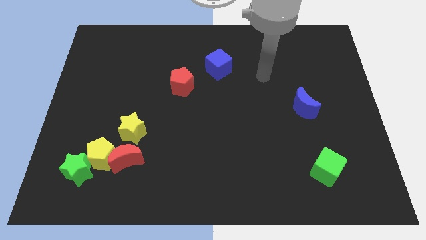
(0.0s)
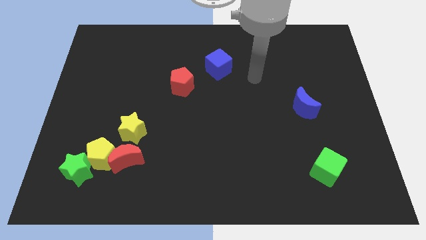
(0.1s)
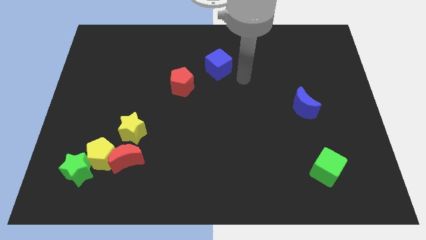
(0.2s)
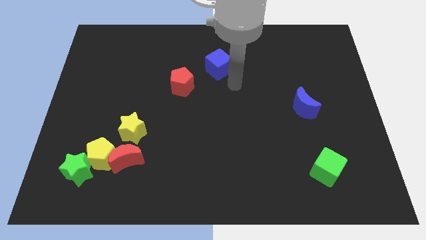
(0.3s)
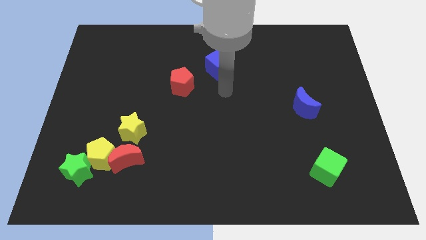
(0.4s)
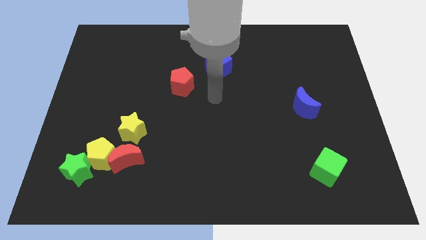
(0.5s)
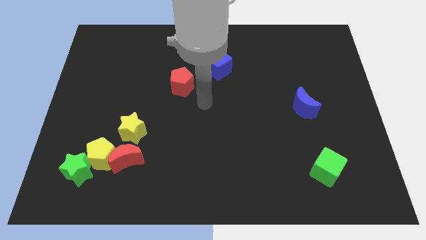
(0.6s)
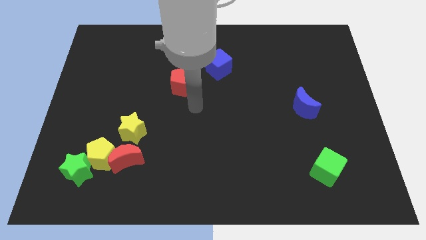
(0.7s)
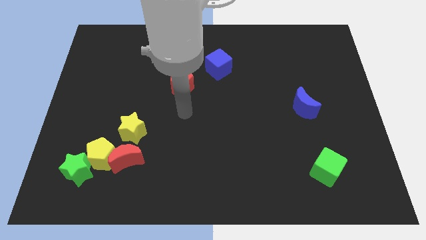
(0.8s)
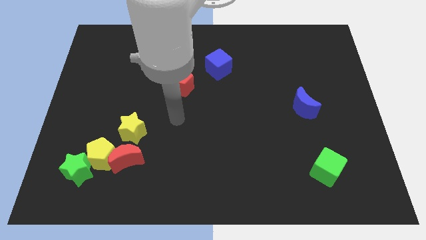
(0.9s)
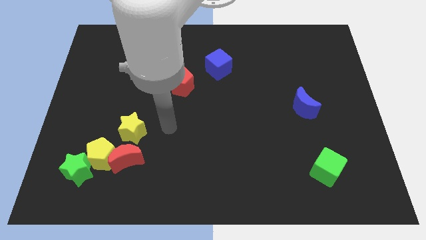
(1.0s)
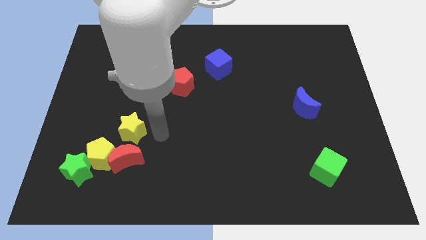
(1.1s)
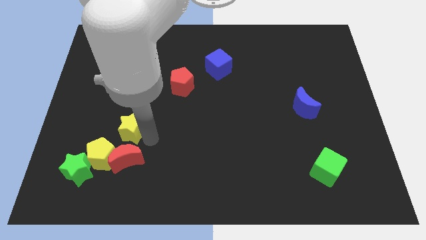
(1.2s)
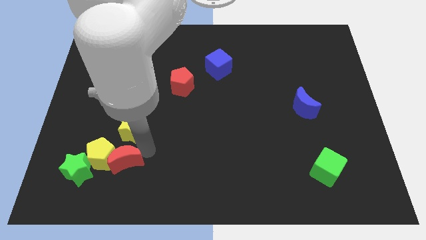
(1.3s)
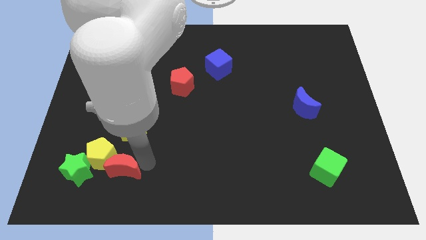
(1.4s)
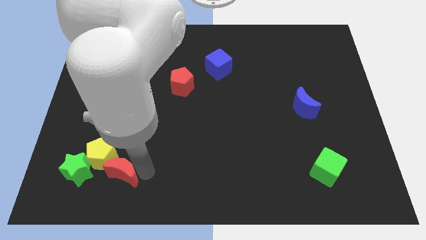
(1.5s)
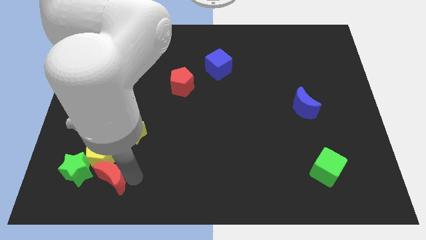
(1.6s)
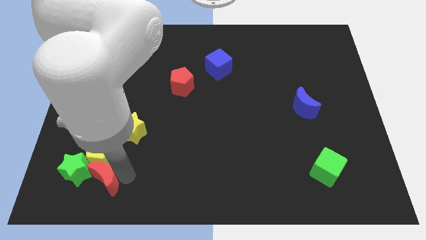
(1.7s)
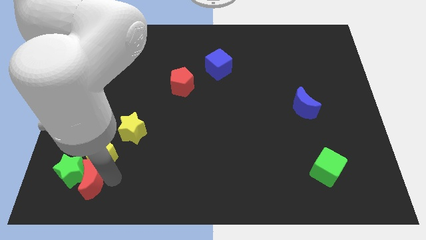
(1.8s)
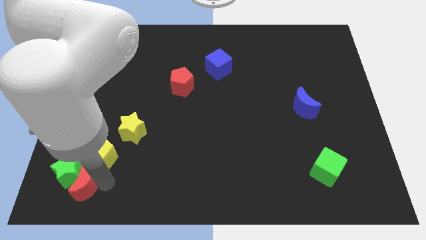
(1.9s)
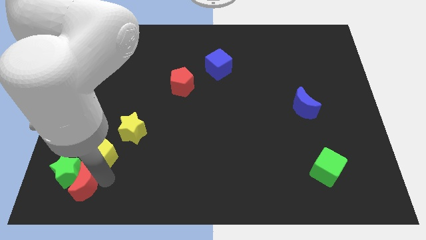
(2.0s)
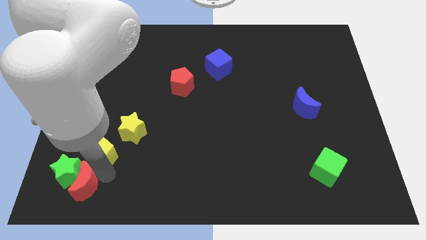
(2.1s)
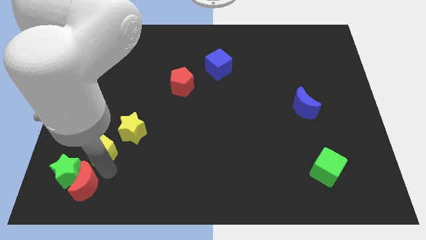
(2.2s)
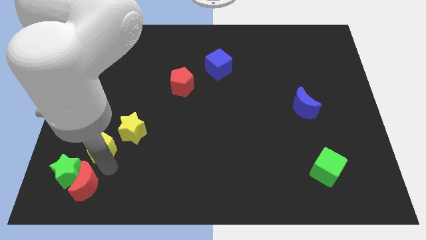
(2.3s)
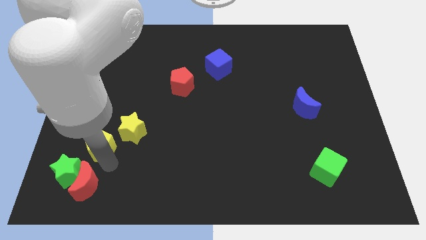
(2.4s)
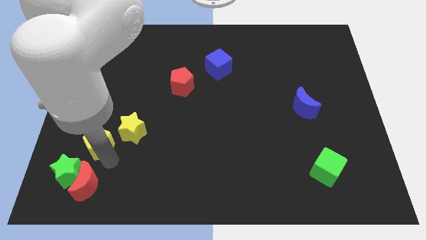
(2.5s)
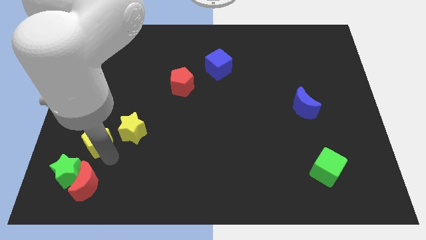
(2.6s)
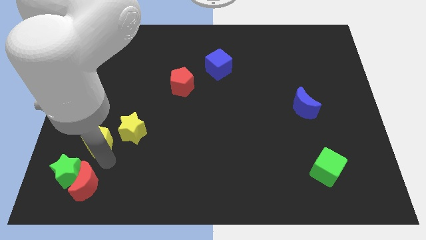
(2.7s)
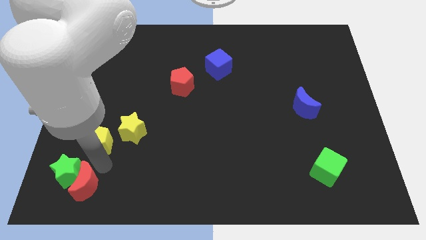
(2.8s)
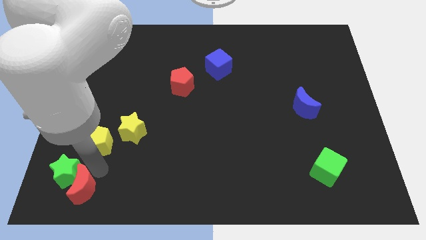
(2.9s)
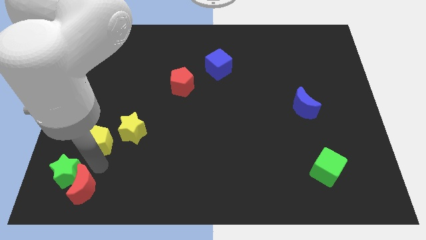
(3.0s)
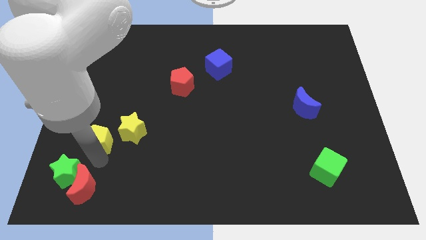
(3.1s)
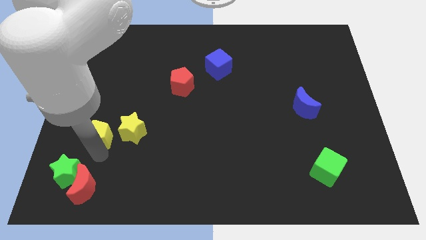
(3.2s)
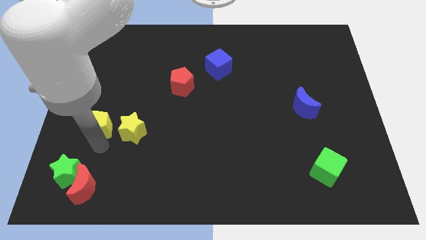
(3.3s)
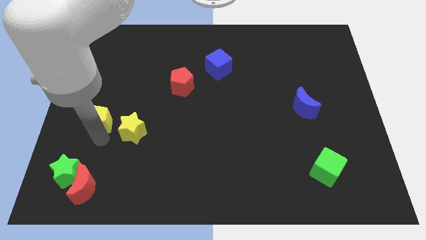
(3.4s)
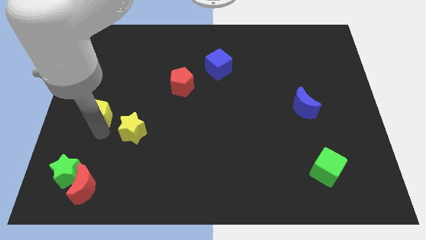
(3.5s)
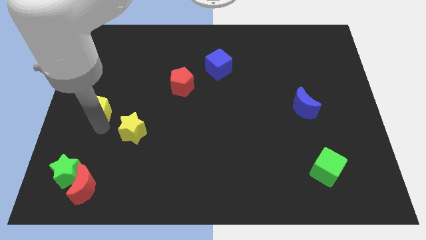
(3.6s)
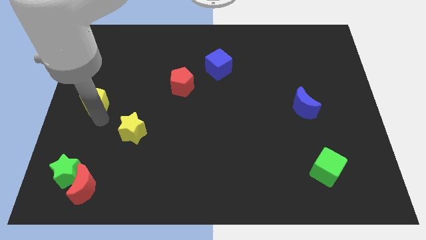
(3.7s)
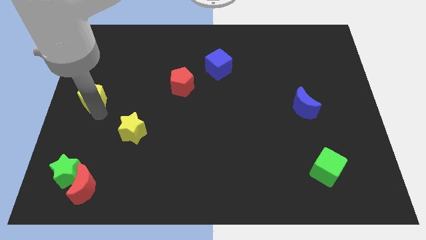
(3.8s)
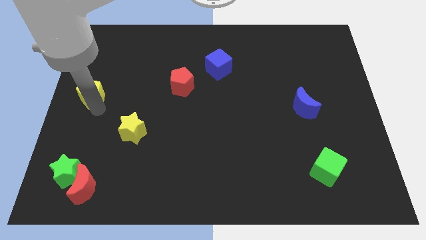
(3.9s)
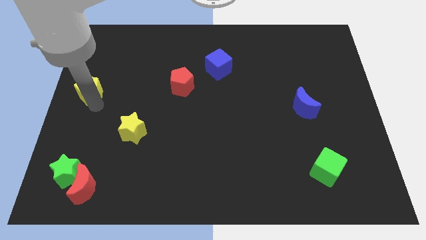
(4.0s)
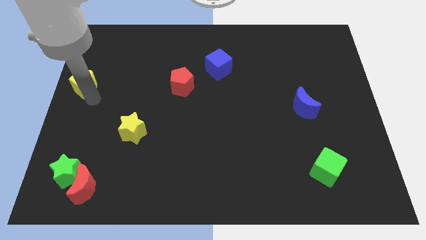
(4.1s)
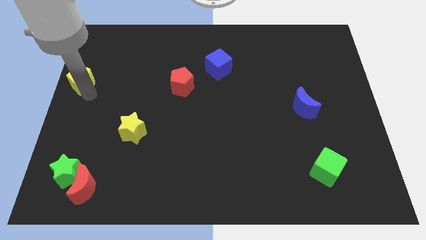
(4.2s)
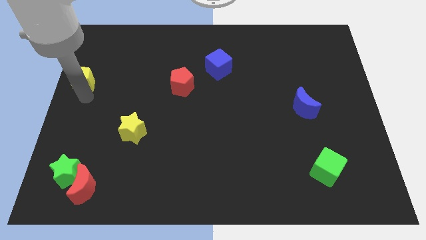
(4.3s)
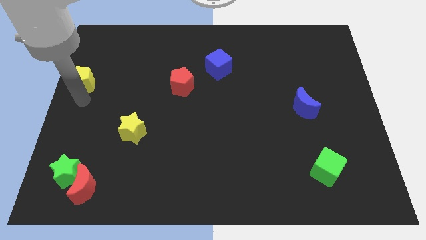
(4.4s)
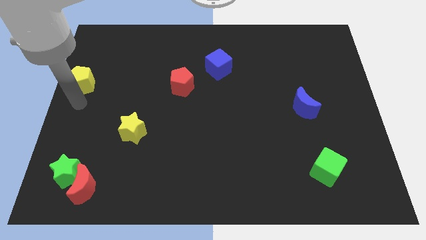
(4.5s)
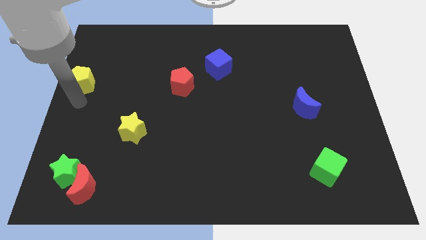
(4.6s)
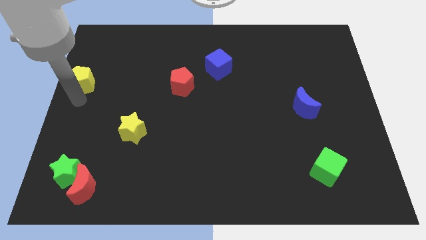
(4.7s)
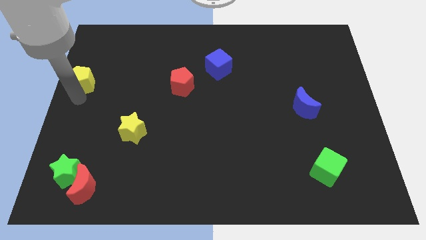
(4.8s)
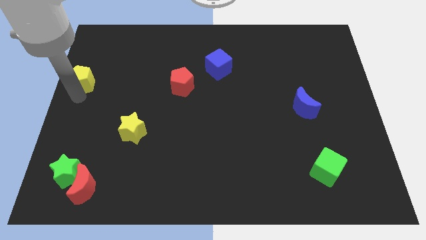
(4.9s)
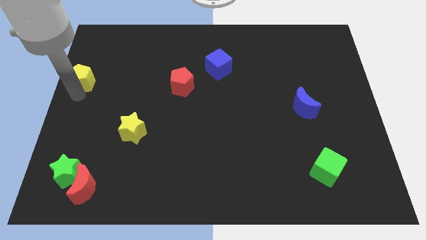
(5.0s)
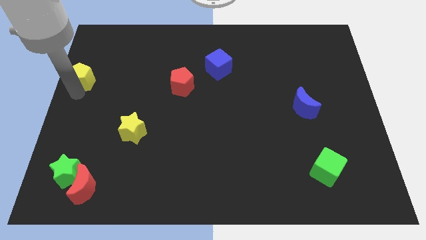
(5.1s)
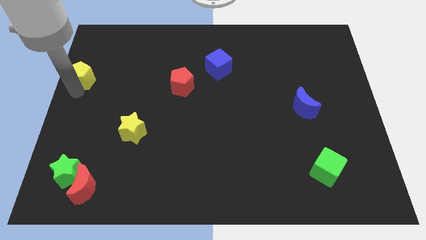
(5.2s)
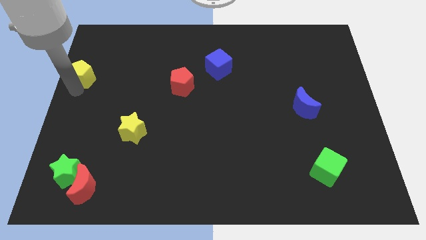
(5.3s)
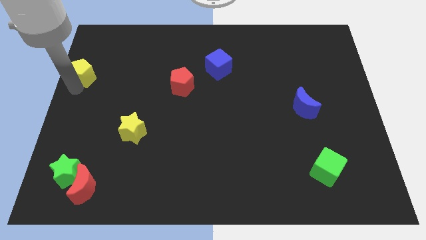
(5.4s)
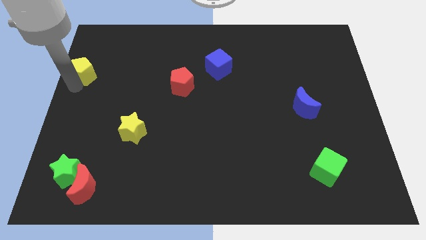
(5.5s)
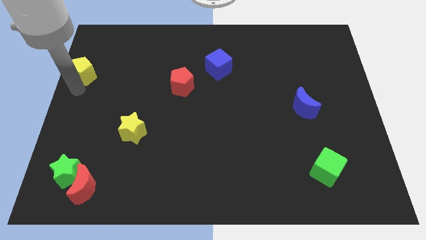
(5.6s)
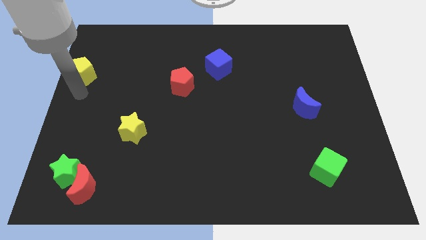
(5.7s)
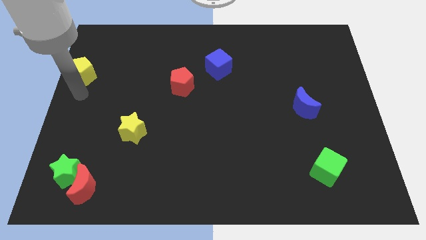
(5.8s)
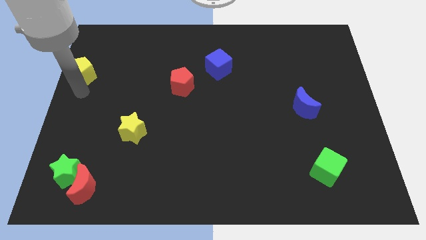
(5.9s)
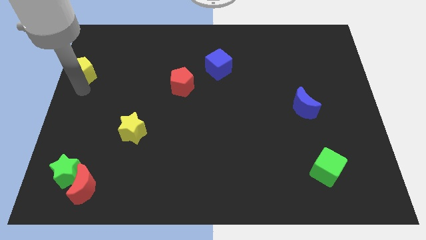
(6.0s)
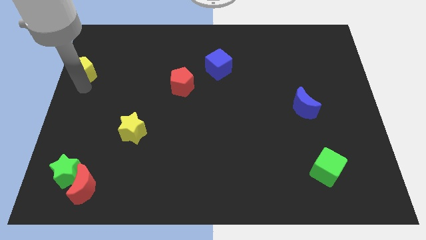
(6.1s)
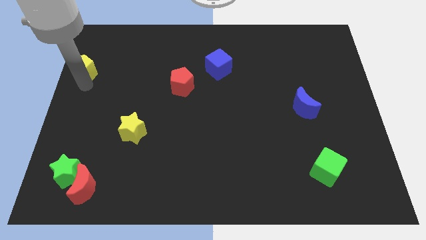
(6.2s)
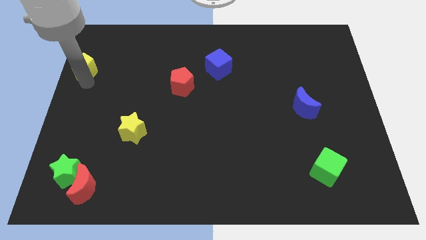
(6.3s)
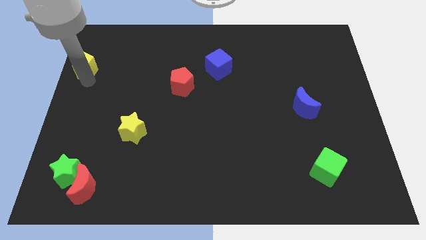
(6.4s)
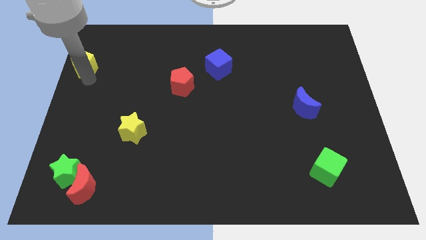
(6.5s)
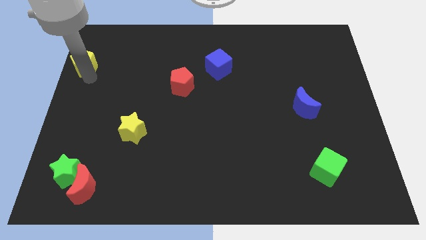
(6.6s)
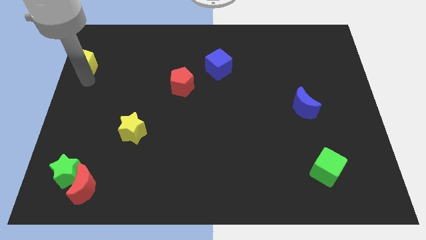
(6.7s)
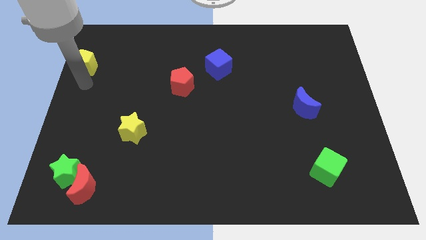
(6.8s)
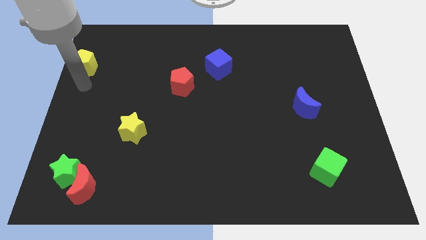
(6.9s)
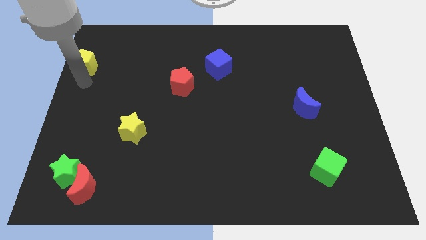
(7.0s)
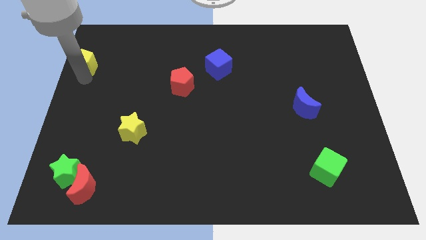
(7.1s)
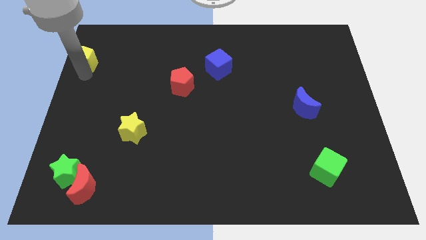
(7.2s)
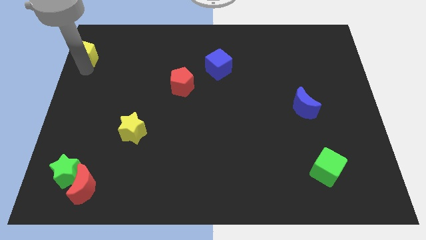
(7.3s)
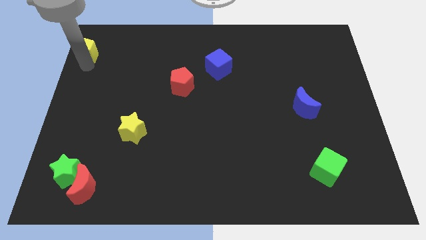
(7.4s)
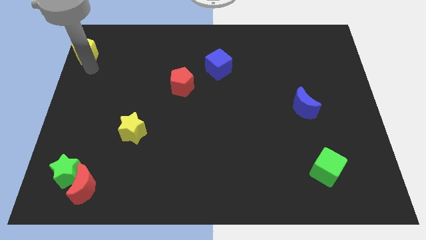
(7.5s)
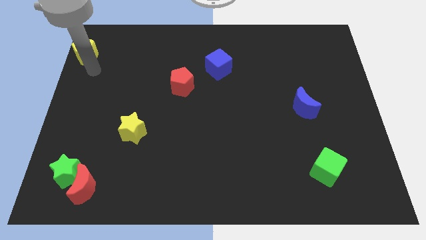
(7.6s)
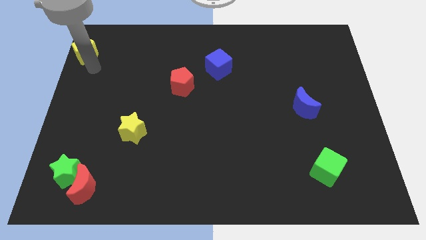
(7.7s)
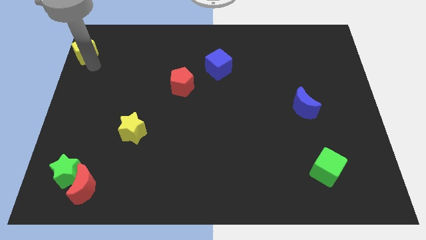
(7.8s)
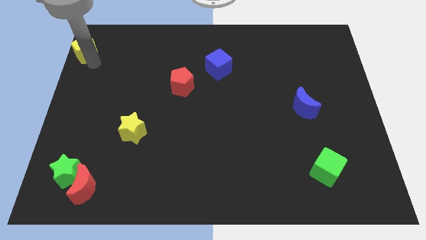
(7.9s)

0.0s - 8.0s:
put the yellow pentagon to the top left
